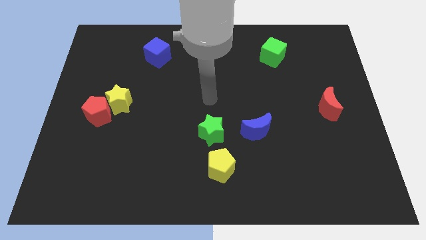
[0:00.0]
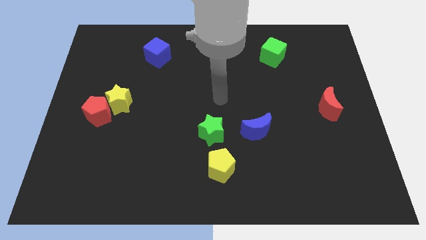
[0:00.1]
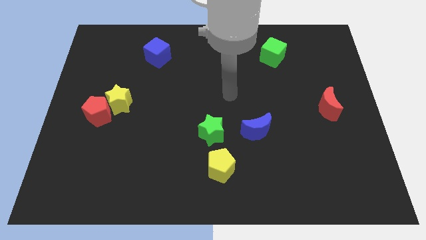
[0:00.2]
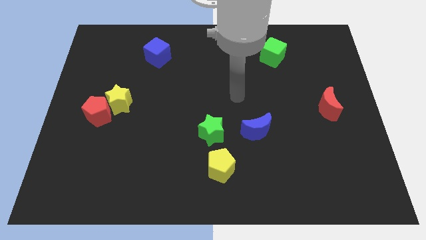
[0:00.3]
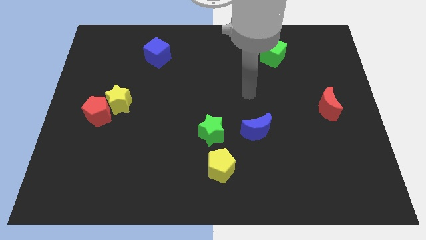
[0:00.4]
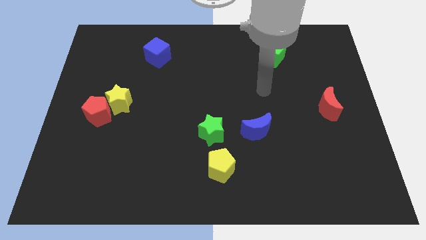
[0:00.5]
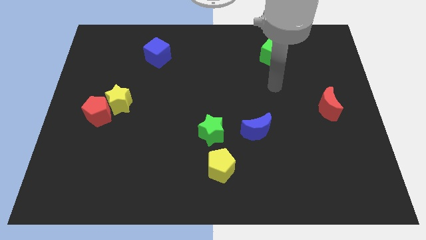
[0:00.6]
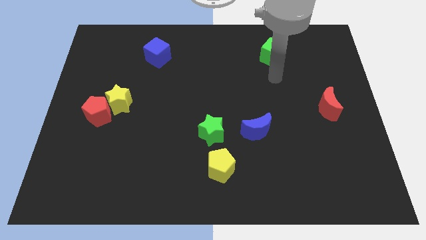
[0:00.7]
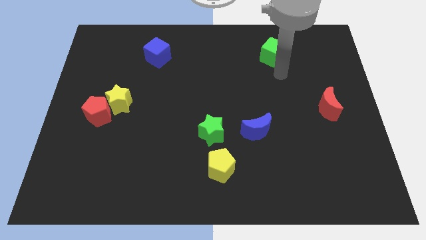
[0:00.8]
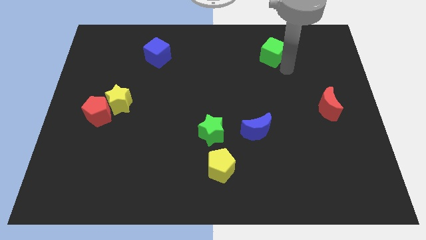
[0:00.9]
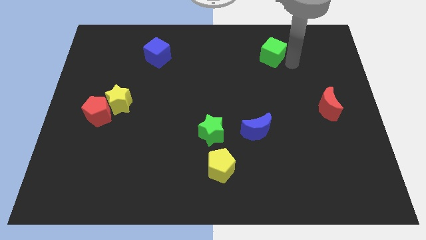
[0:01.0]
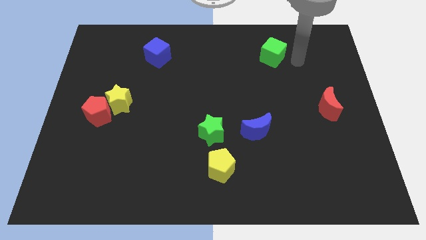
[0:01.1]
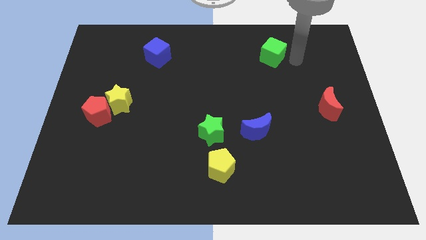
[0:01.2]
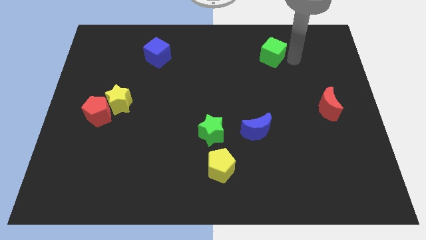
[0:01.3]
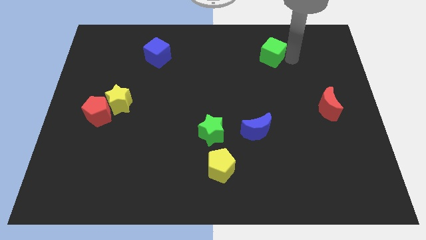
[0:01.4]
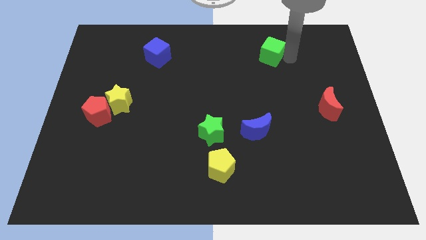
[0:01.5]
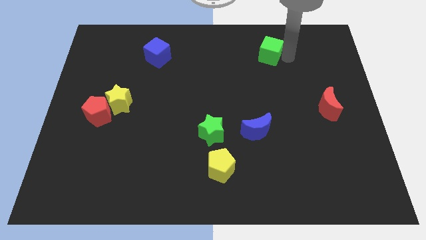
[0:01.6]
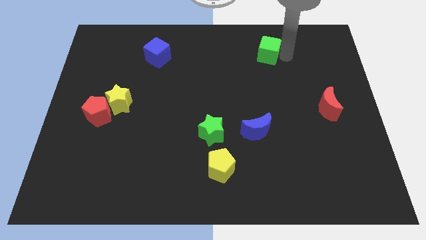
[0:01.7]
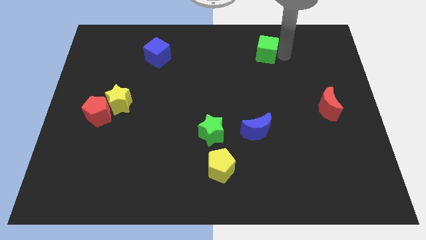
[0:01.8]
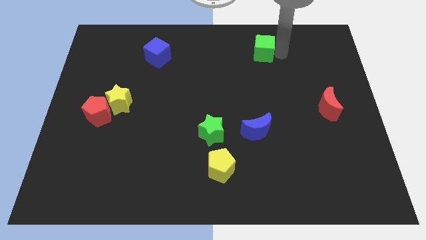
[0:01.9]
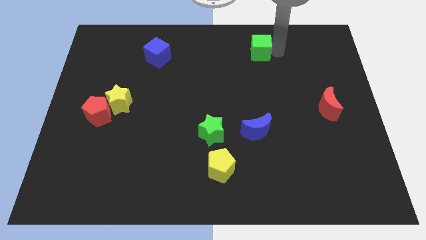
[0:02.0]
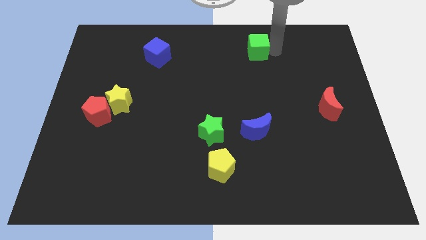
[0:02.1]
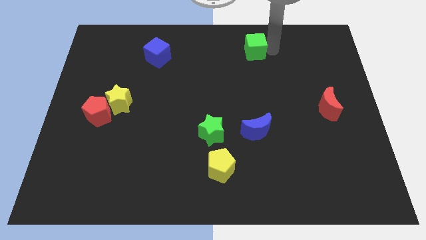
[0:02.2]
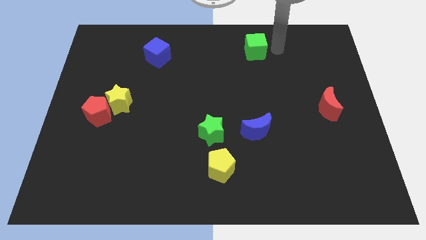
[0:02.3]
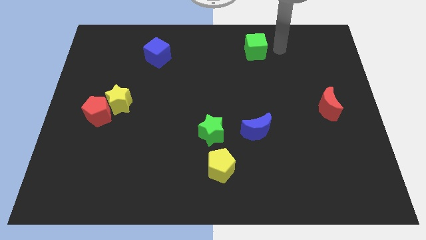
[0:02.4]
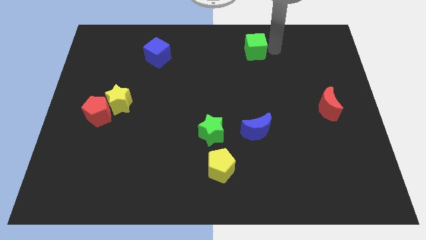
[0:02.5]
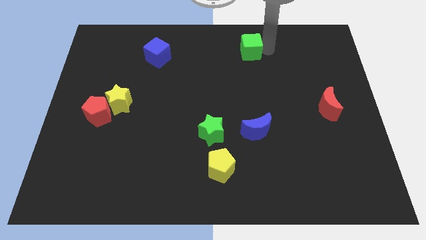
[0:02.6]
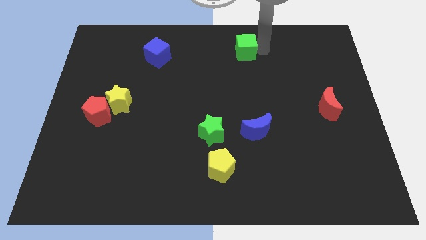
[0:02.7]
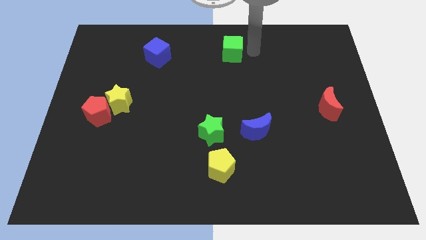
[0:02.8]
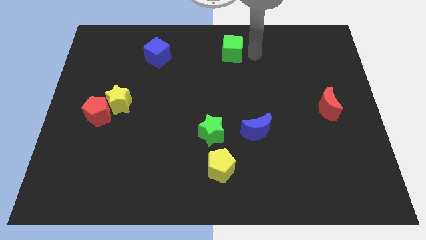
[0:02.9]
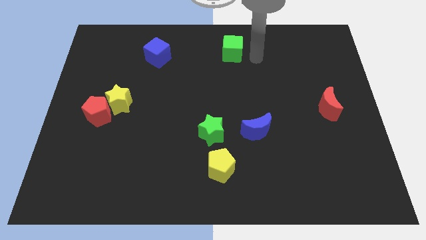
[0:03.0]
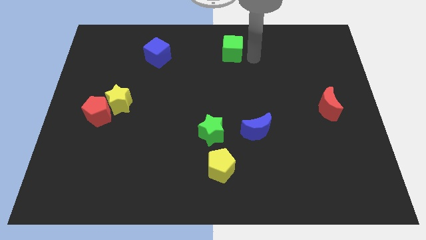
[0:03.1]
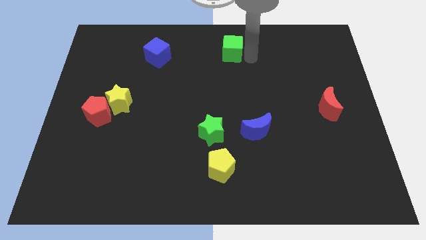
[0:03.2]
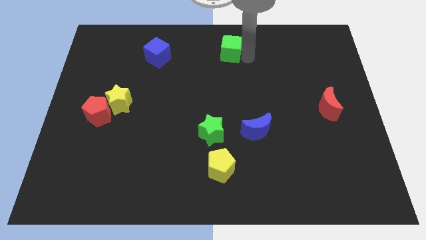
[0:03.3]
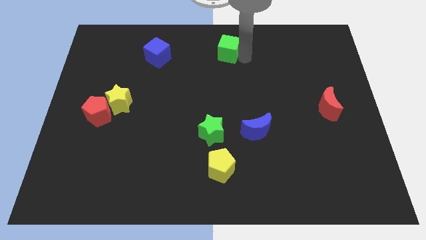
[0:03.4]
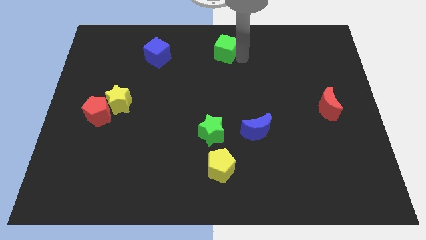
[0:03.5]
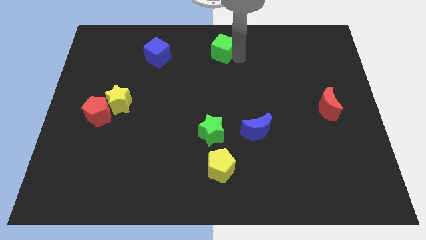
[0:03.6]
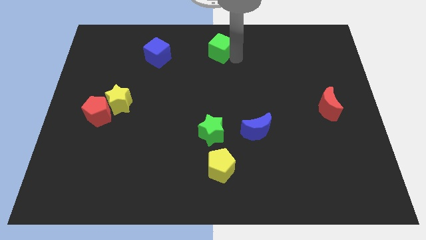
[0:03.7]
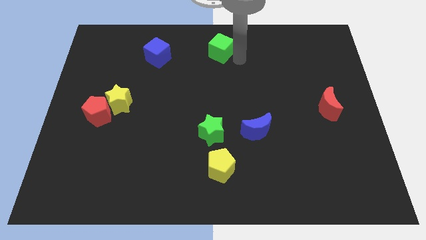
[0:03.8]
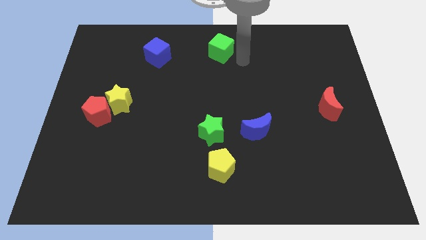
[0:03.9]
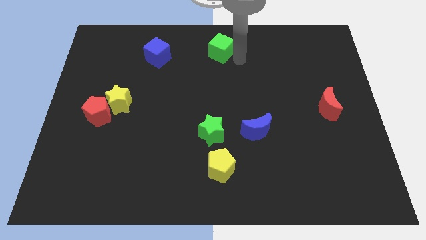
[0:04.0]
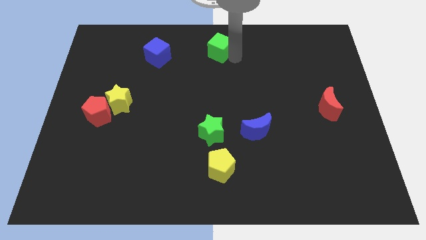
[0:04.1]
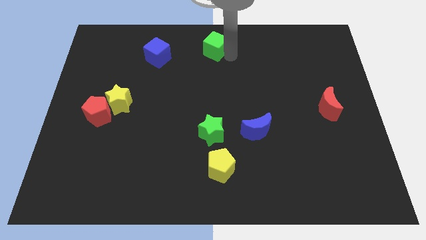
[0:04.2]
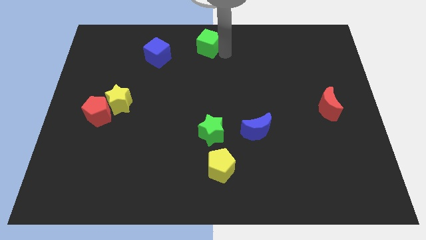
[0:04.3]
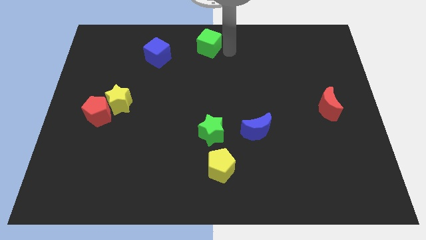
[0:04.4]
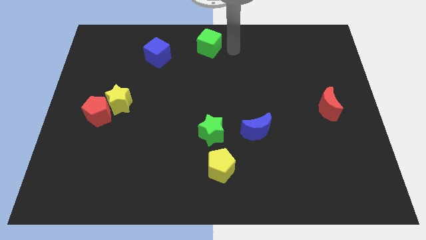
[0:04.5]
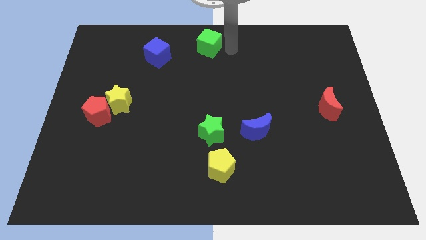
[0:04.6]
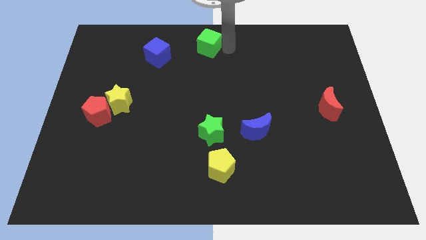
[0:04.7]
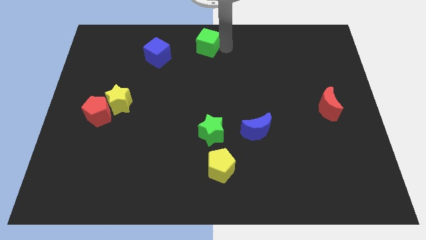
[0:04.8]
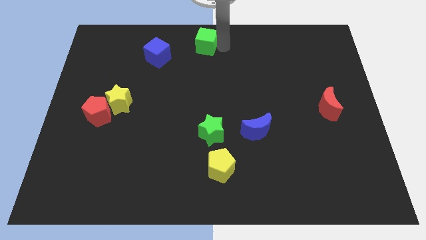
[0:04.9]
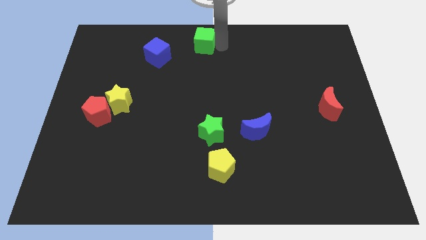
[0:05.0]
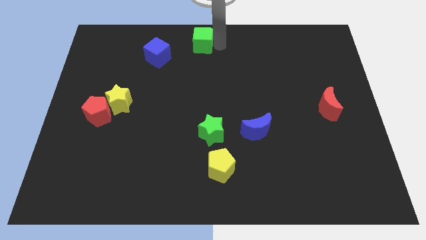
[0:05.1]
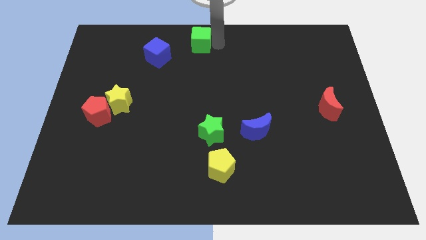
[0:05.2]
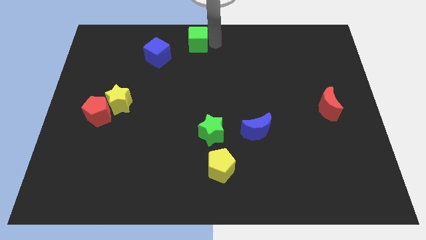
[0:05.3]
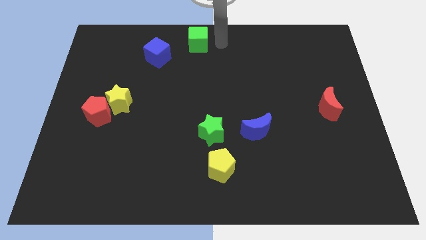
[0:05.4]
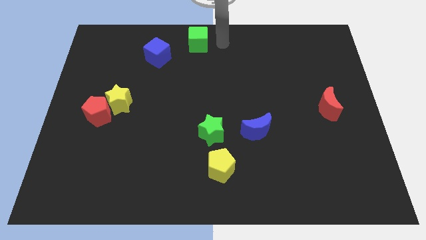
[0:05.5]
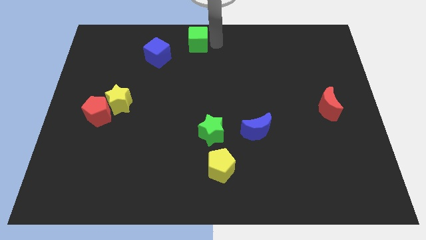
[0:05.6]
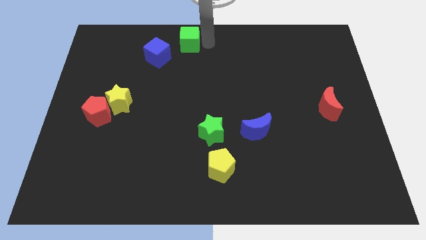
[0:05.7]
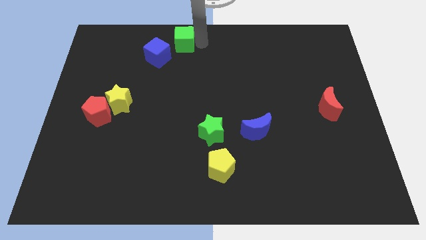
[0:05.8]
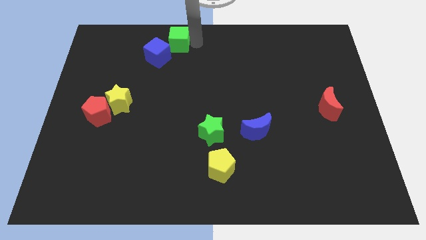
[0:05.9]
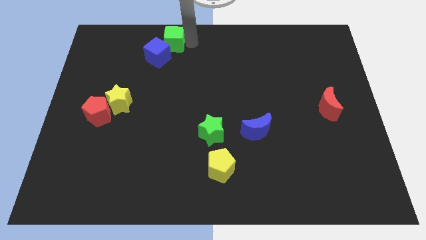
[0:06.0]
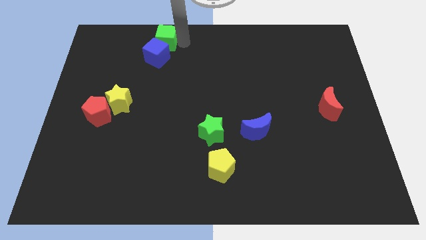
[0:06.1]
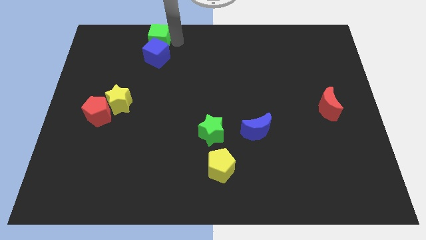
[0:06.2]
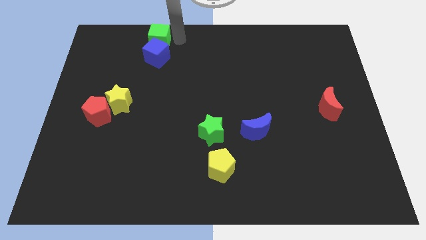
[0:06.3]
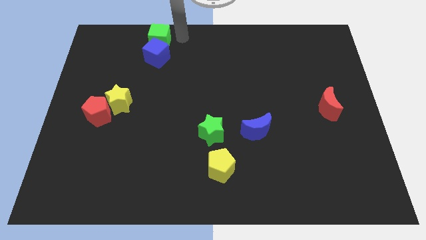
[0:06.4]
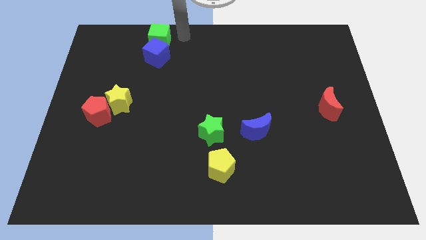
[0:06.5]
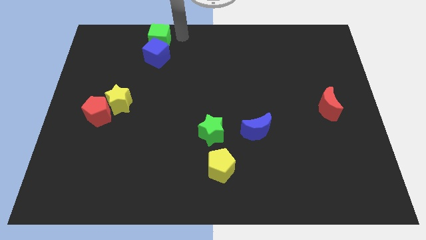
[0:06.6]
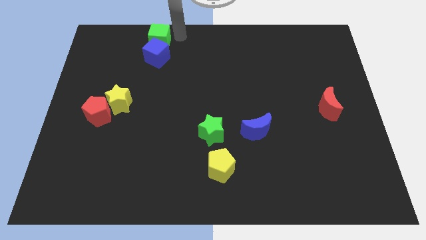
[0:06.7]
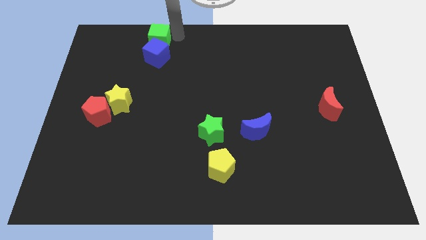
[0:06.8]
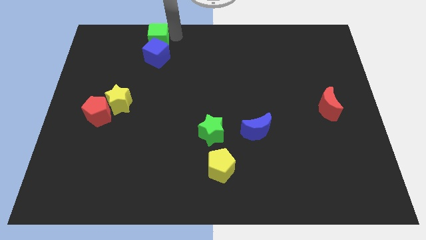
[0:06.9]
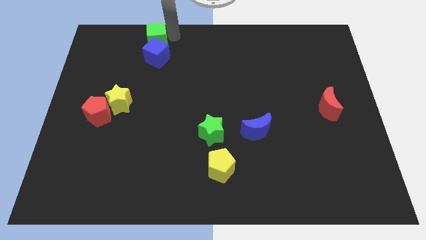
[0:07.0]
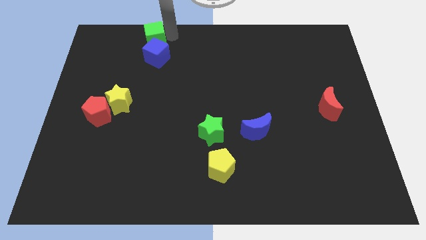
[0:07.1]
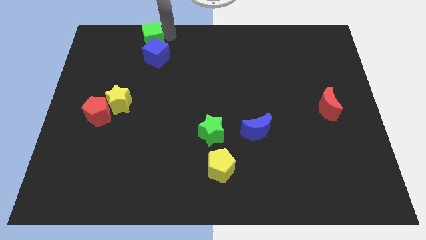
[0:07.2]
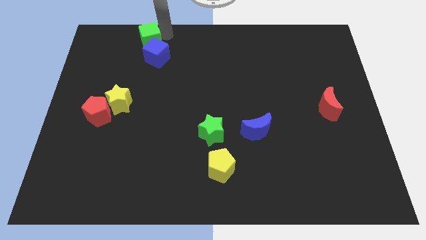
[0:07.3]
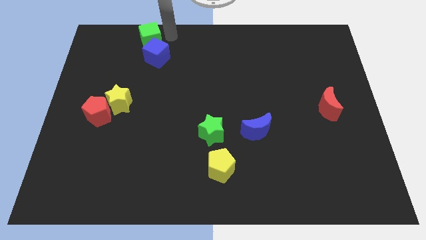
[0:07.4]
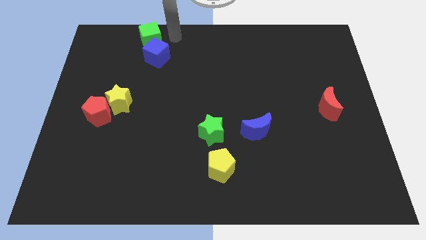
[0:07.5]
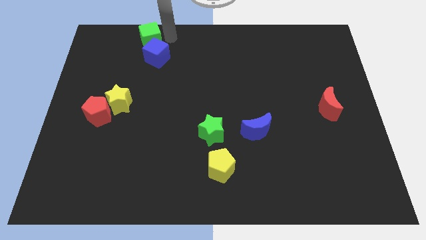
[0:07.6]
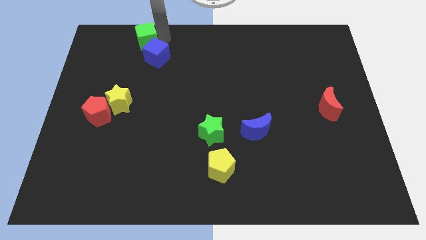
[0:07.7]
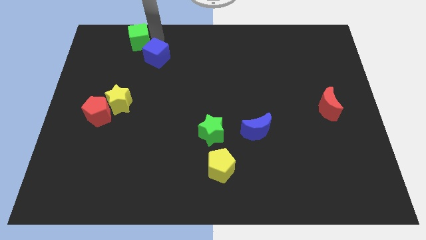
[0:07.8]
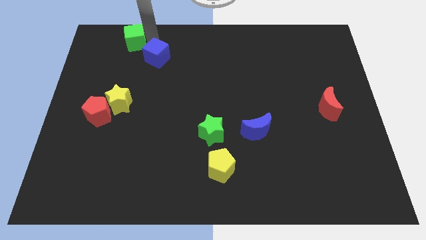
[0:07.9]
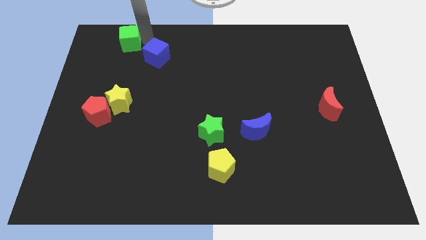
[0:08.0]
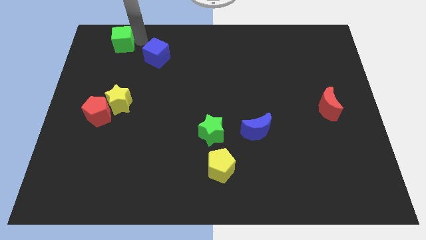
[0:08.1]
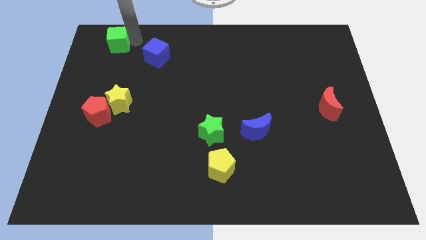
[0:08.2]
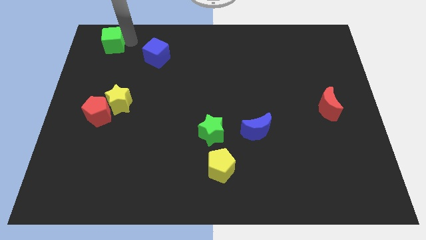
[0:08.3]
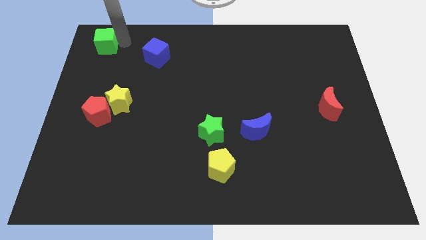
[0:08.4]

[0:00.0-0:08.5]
move the green cube to the top left
